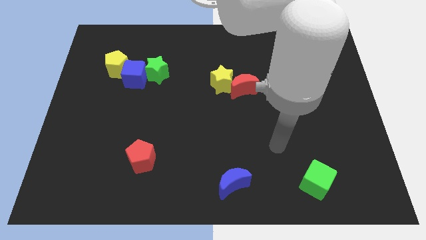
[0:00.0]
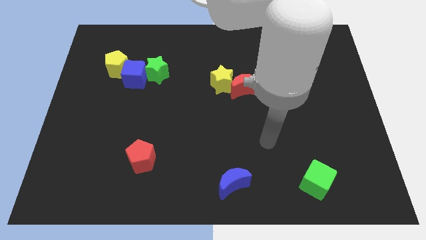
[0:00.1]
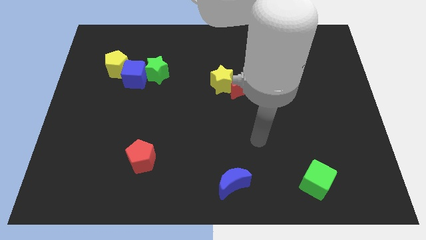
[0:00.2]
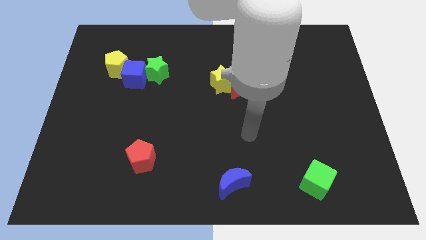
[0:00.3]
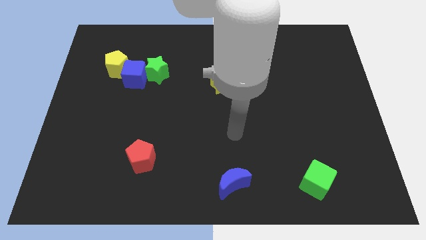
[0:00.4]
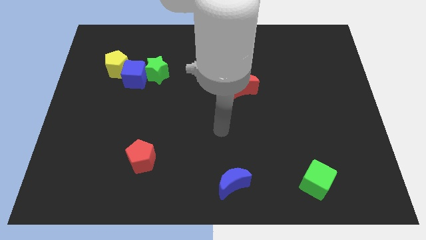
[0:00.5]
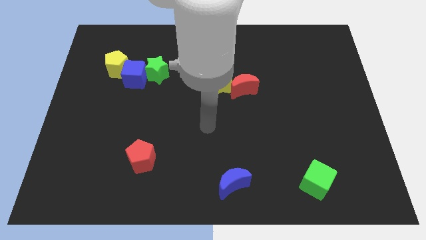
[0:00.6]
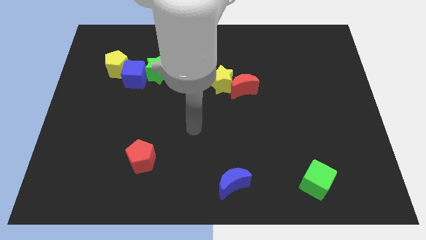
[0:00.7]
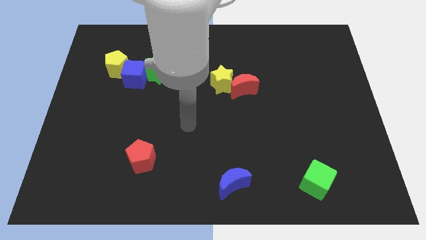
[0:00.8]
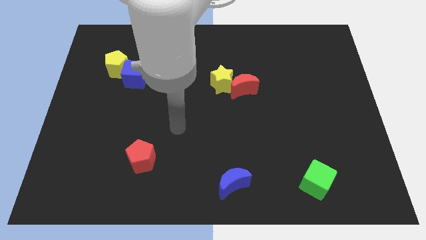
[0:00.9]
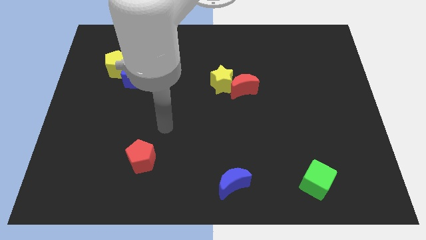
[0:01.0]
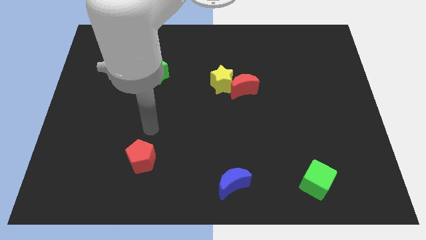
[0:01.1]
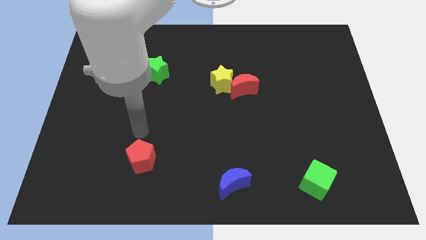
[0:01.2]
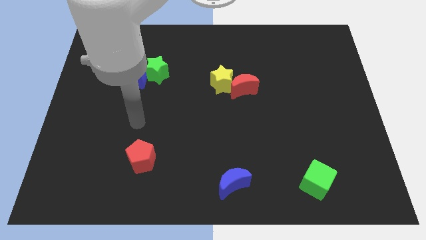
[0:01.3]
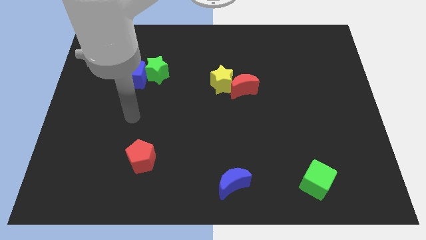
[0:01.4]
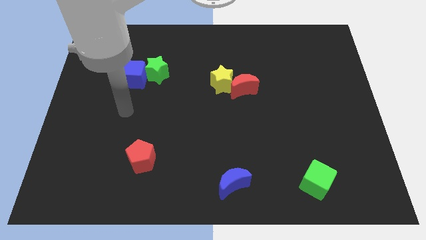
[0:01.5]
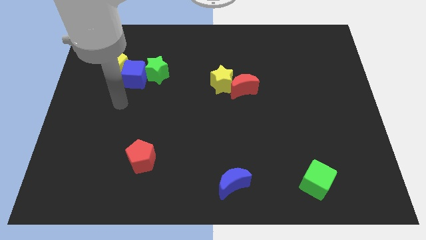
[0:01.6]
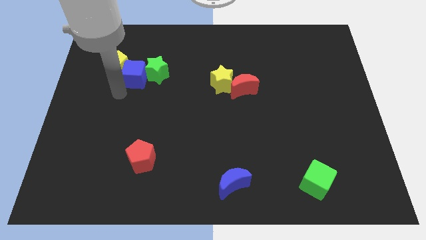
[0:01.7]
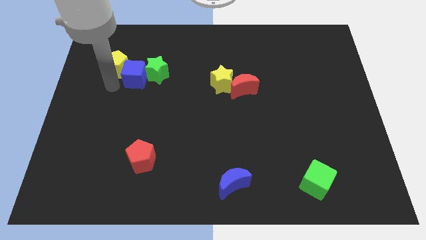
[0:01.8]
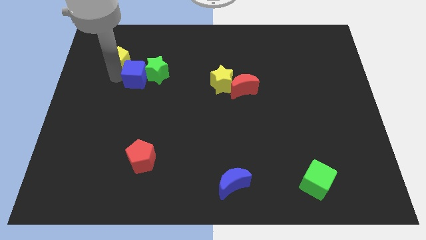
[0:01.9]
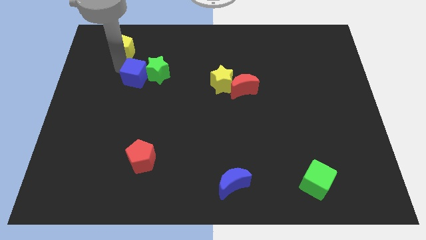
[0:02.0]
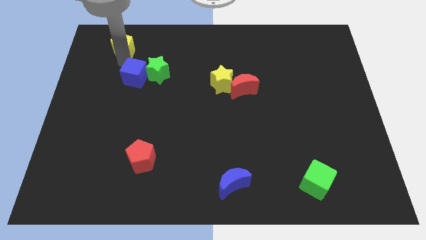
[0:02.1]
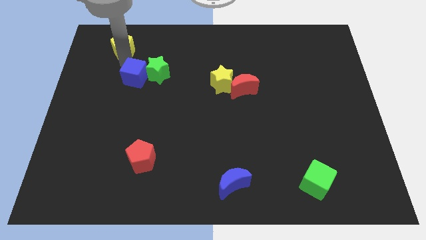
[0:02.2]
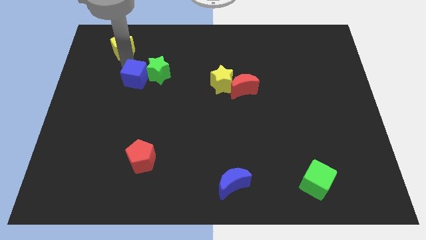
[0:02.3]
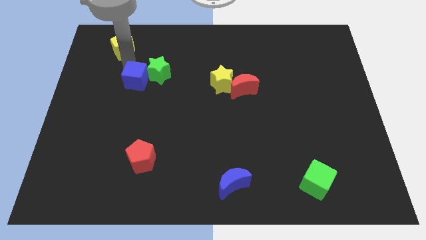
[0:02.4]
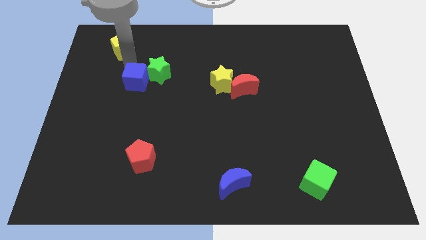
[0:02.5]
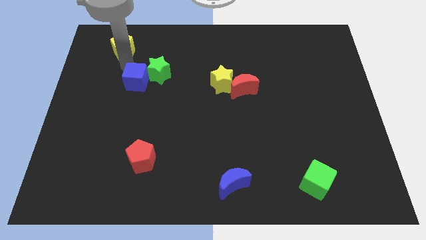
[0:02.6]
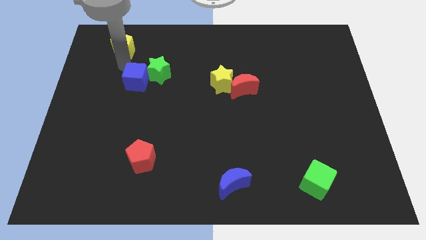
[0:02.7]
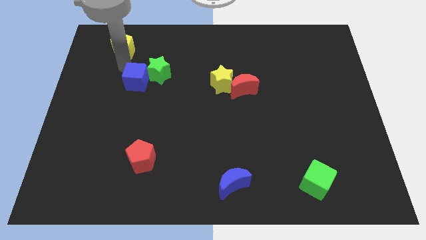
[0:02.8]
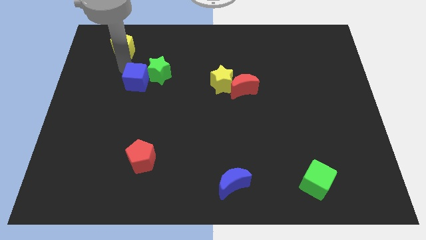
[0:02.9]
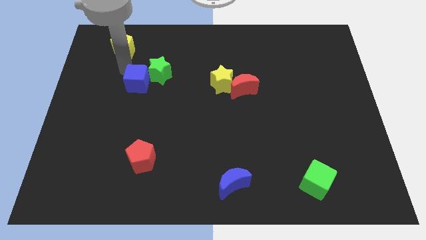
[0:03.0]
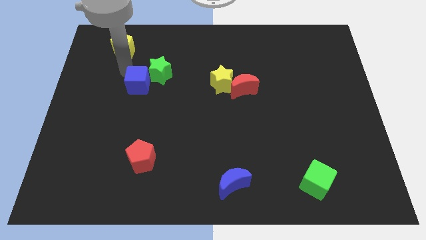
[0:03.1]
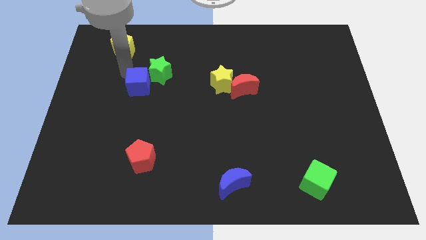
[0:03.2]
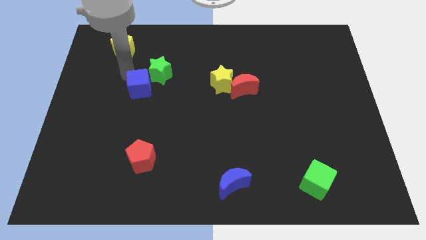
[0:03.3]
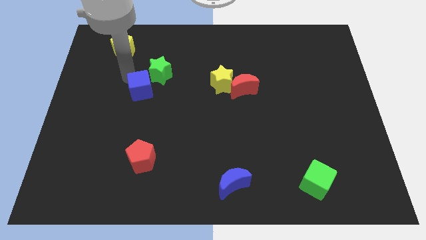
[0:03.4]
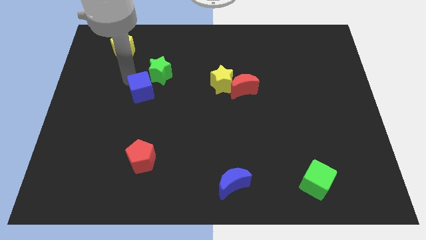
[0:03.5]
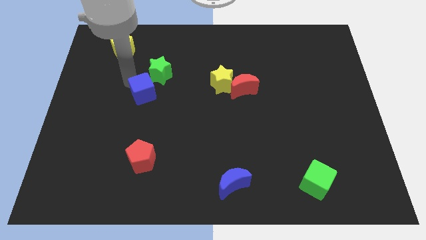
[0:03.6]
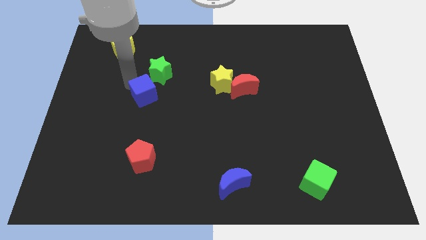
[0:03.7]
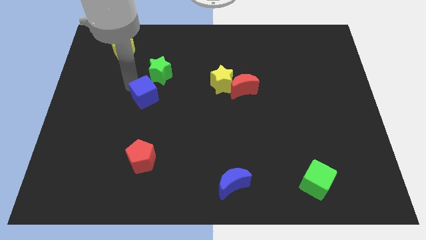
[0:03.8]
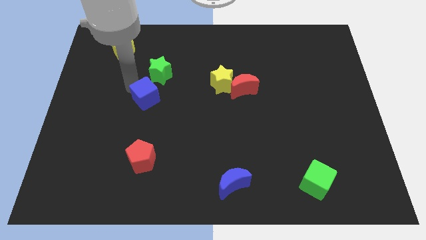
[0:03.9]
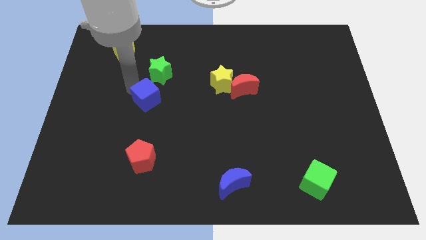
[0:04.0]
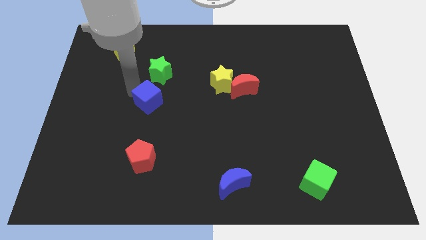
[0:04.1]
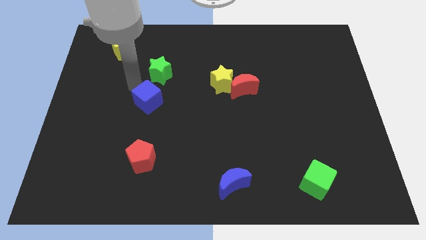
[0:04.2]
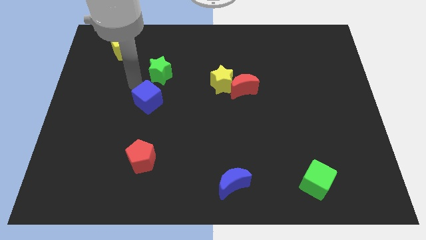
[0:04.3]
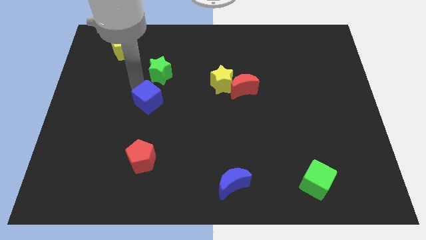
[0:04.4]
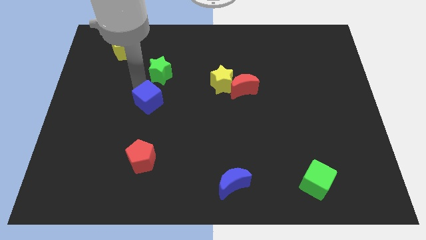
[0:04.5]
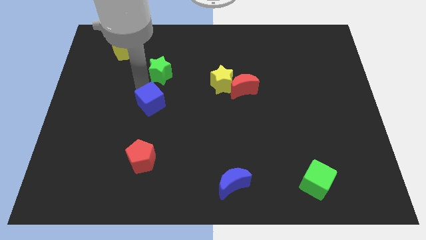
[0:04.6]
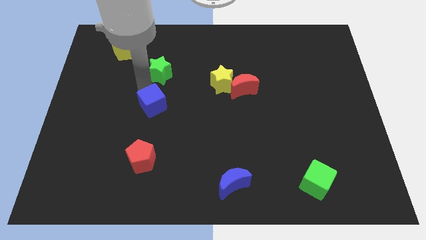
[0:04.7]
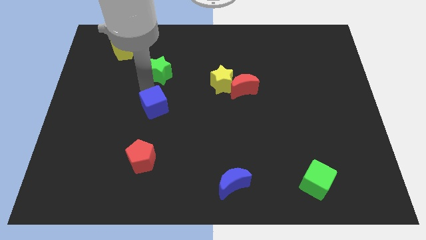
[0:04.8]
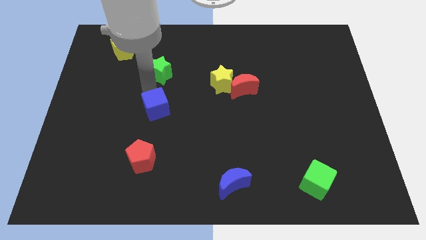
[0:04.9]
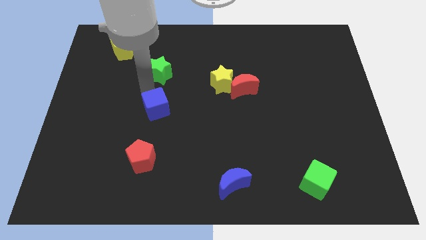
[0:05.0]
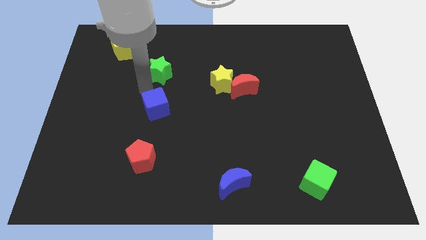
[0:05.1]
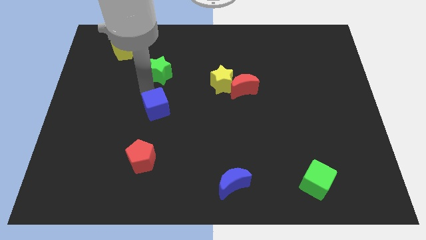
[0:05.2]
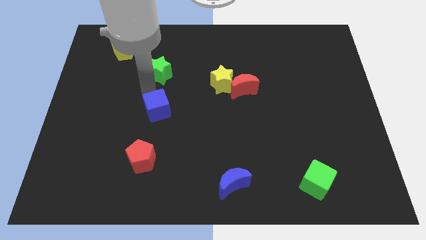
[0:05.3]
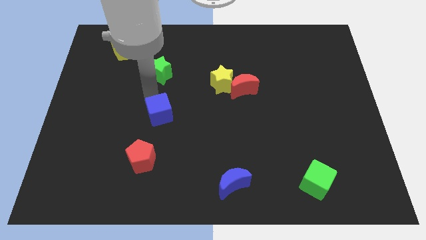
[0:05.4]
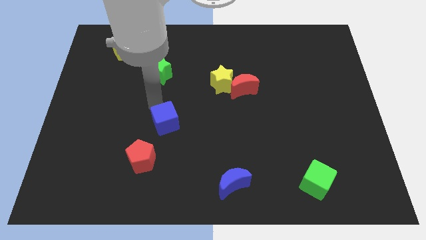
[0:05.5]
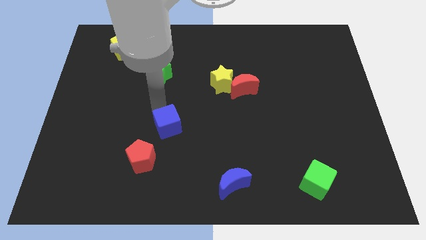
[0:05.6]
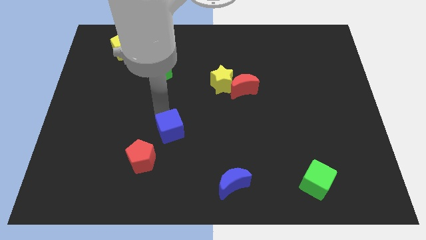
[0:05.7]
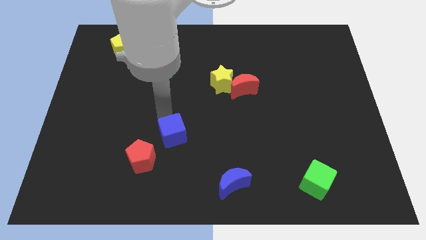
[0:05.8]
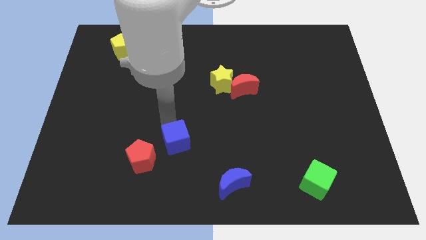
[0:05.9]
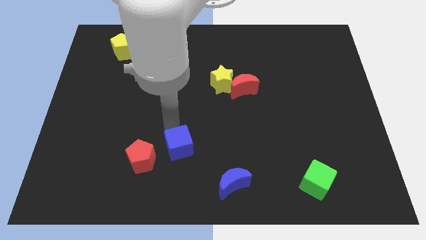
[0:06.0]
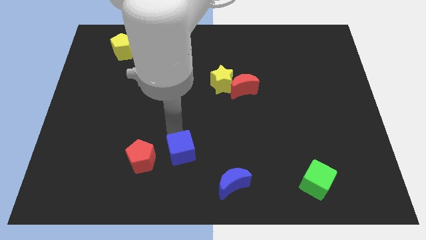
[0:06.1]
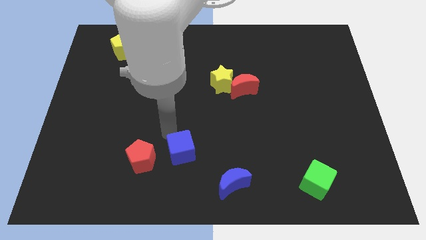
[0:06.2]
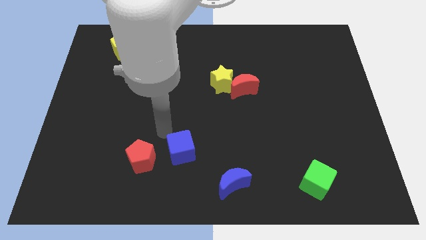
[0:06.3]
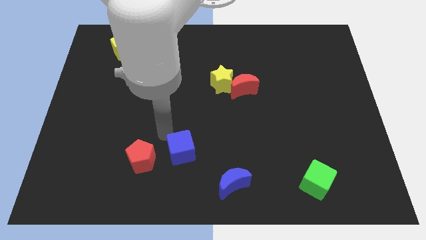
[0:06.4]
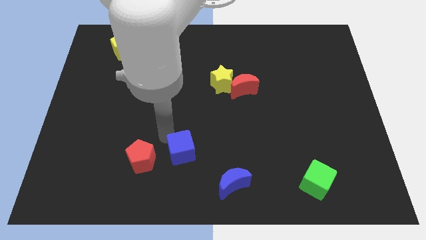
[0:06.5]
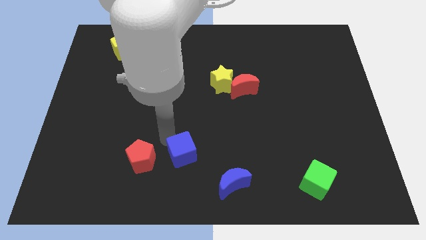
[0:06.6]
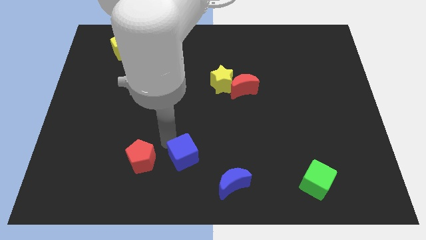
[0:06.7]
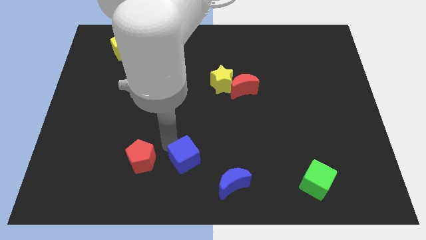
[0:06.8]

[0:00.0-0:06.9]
push the blue cube to the bottom side

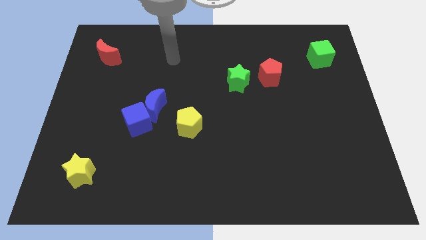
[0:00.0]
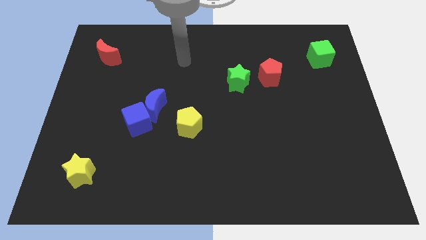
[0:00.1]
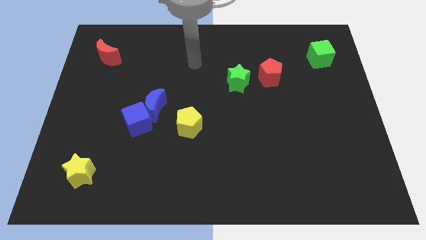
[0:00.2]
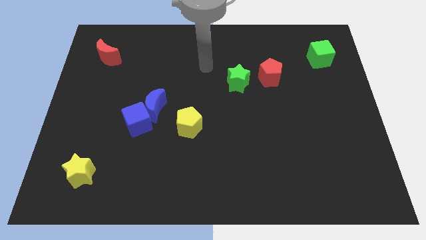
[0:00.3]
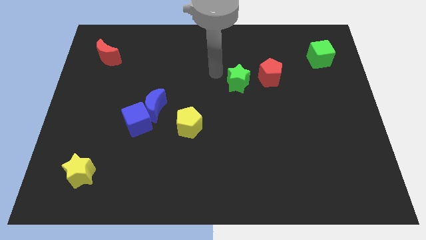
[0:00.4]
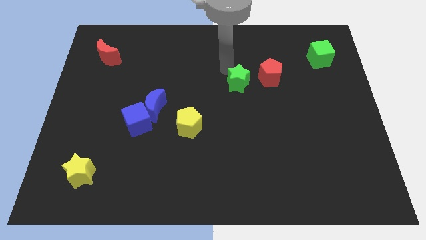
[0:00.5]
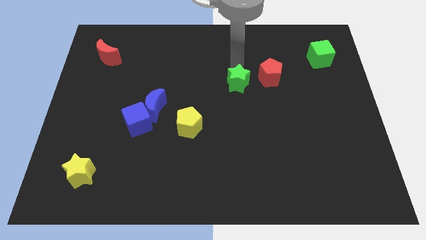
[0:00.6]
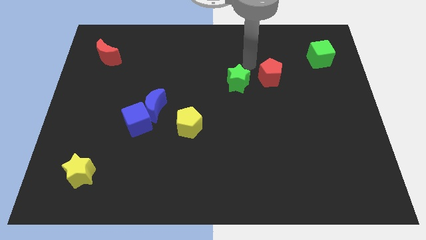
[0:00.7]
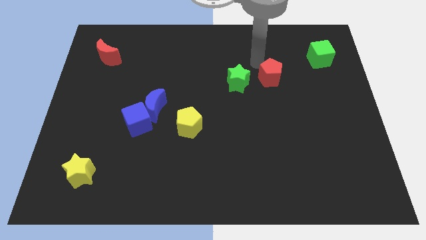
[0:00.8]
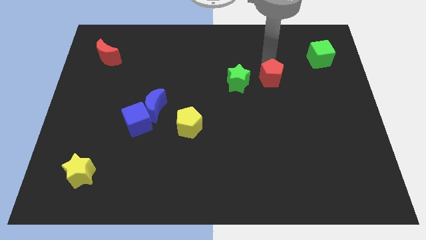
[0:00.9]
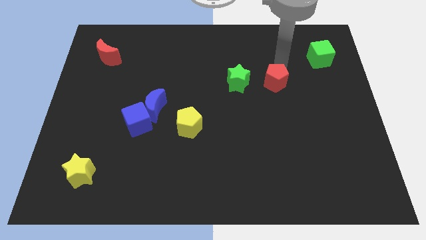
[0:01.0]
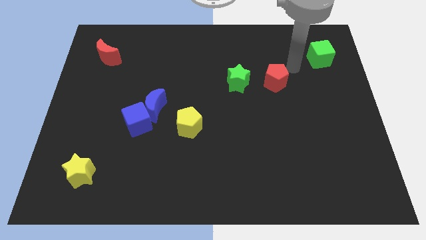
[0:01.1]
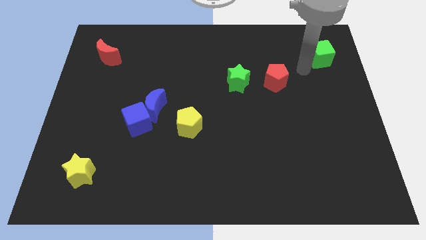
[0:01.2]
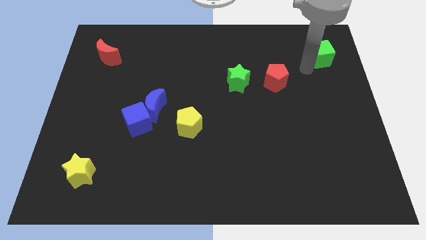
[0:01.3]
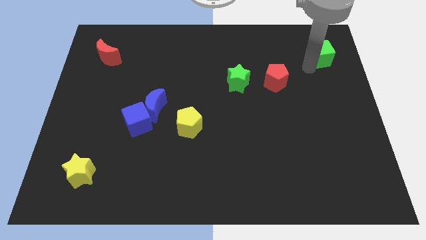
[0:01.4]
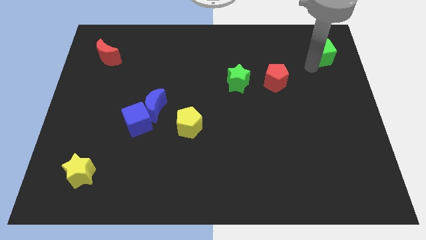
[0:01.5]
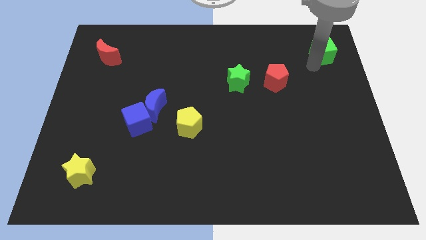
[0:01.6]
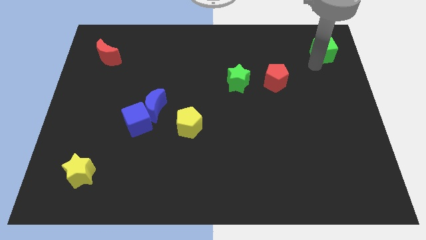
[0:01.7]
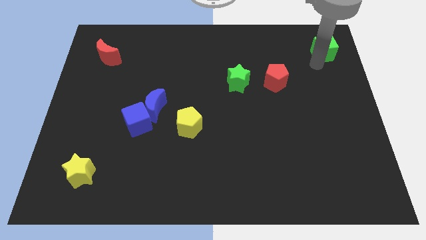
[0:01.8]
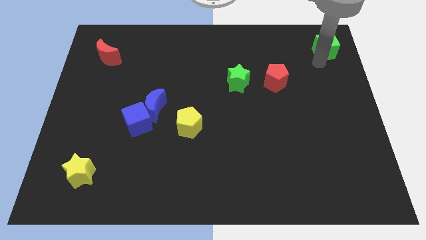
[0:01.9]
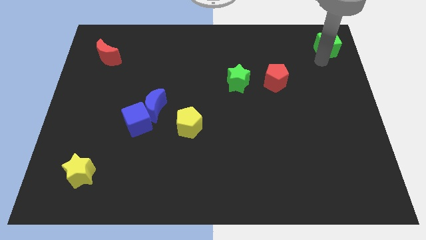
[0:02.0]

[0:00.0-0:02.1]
slide the green cube to the top right corner
